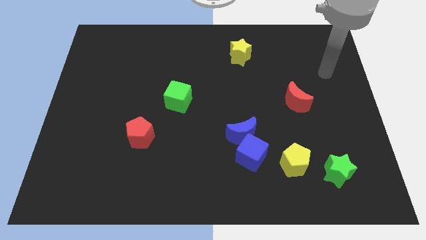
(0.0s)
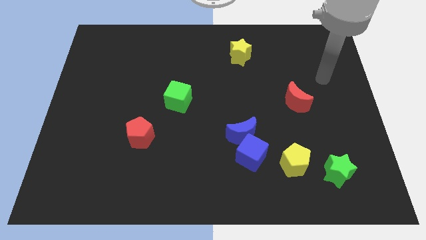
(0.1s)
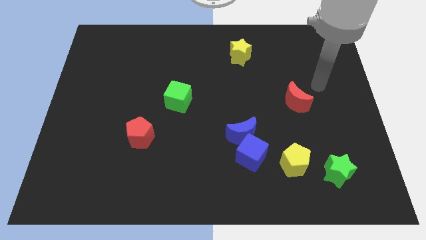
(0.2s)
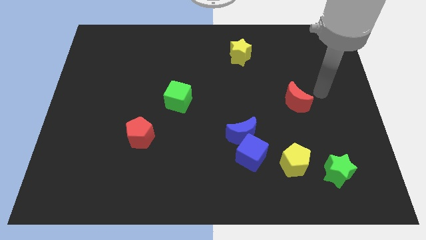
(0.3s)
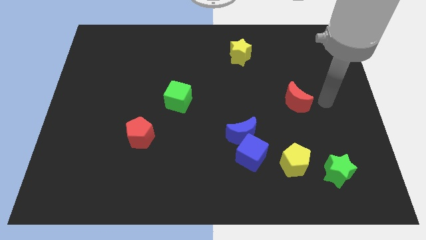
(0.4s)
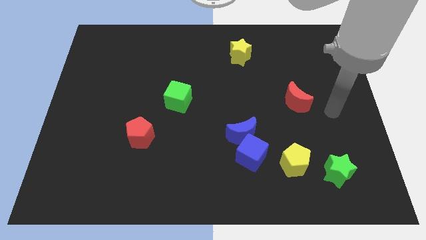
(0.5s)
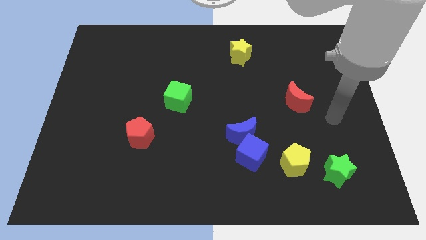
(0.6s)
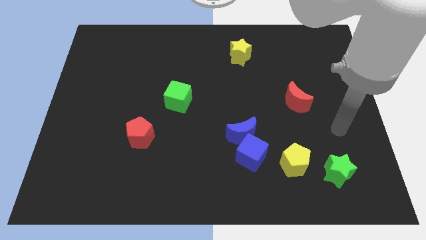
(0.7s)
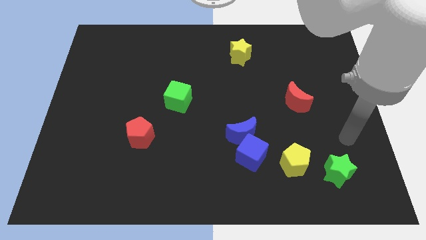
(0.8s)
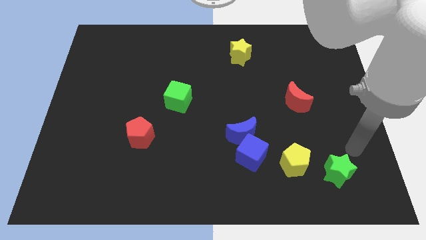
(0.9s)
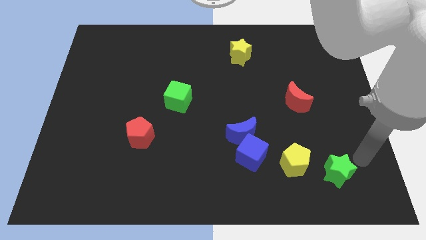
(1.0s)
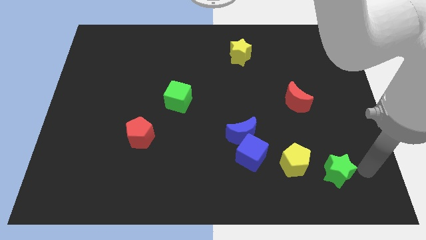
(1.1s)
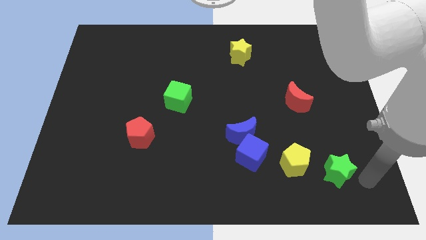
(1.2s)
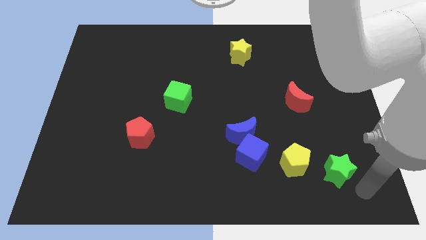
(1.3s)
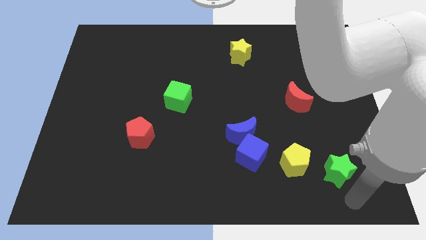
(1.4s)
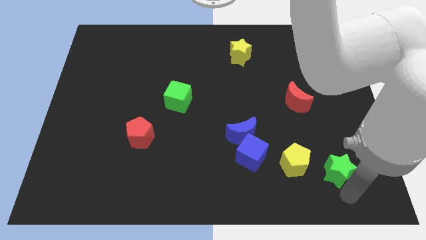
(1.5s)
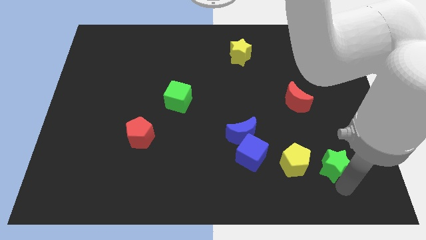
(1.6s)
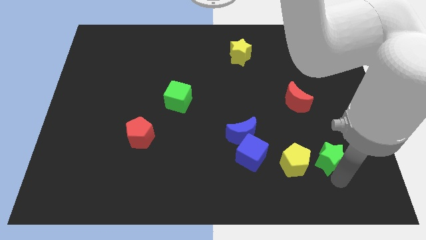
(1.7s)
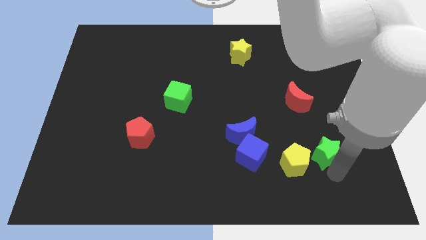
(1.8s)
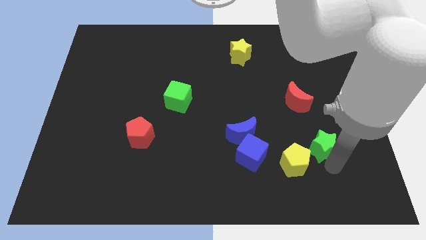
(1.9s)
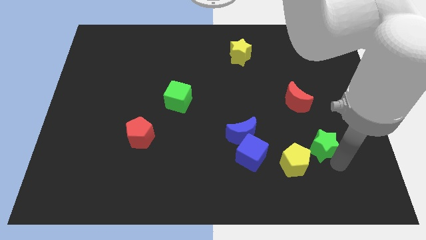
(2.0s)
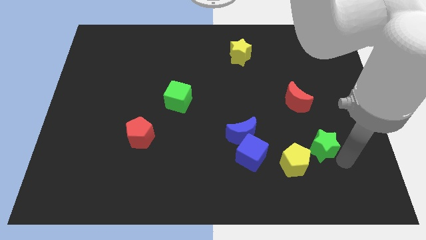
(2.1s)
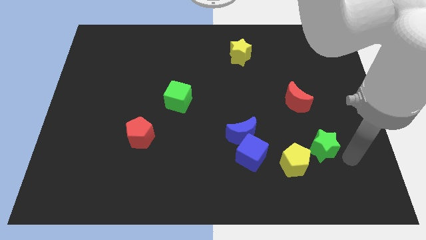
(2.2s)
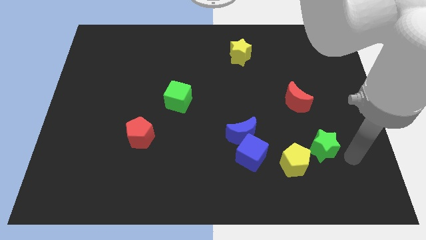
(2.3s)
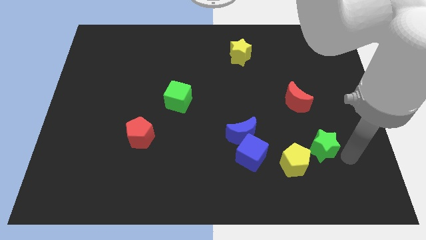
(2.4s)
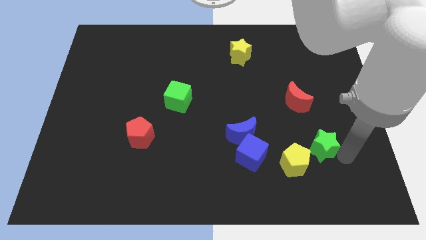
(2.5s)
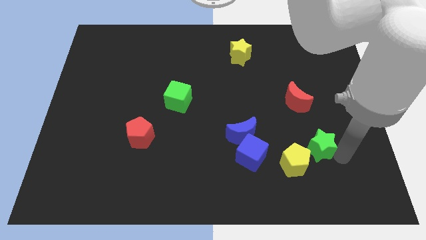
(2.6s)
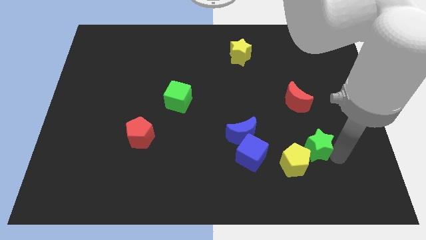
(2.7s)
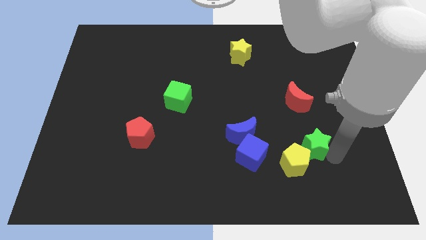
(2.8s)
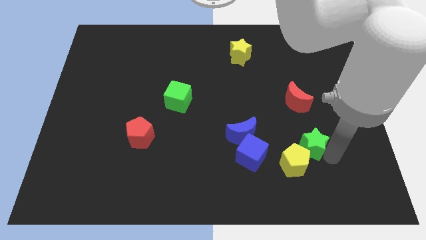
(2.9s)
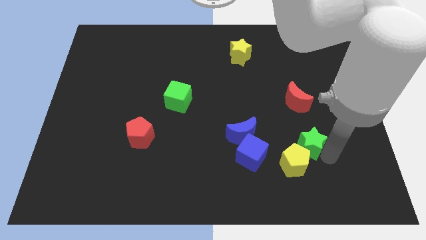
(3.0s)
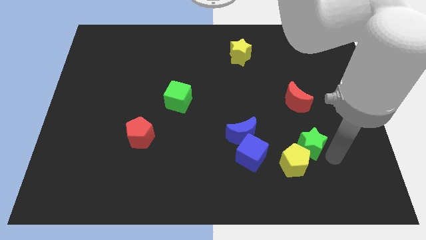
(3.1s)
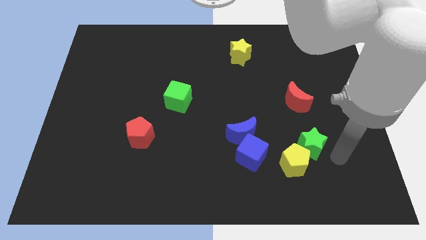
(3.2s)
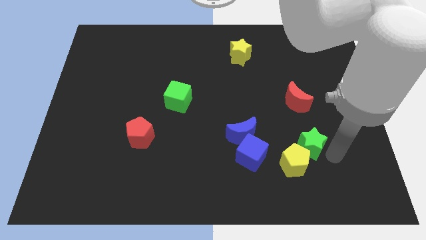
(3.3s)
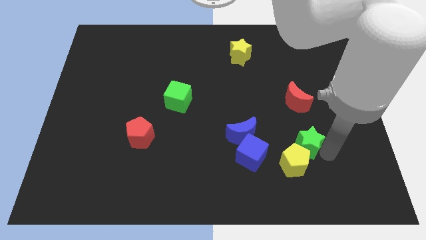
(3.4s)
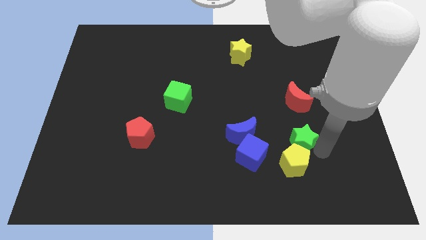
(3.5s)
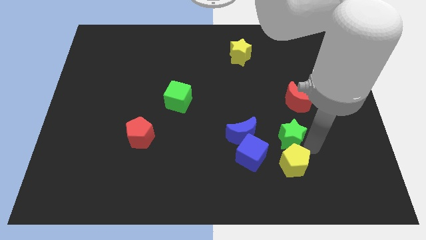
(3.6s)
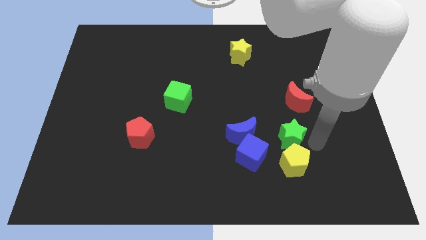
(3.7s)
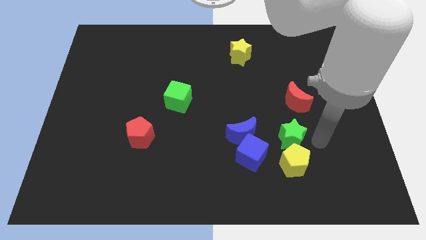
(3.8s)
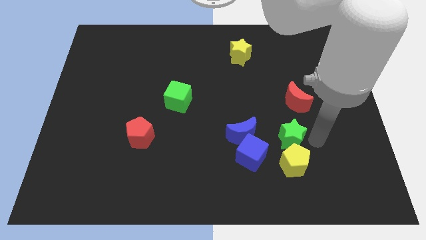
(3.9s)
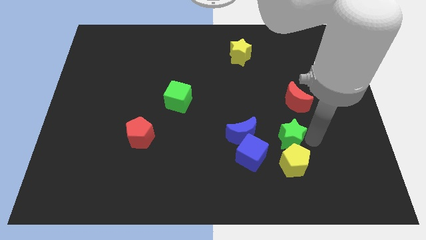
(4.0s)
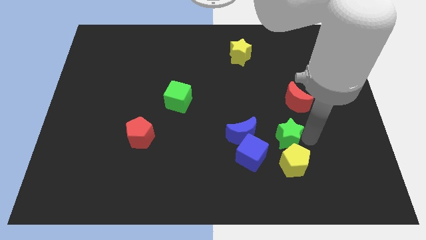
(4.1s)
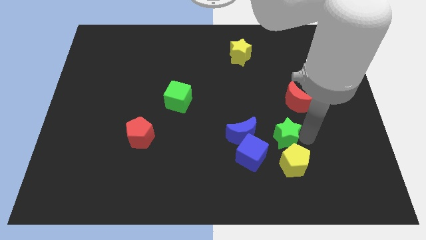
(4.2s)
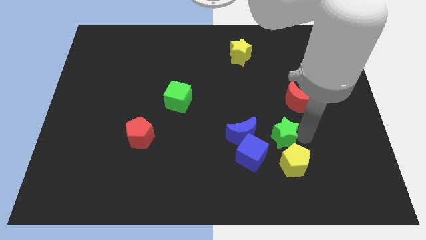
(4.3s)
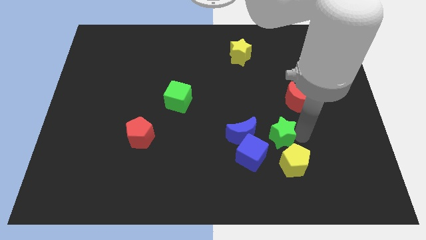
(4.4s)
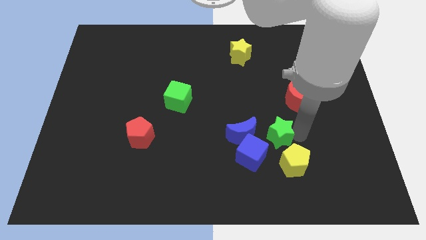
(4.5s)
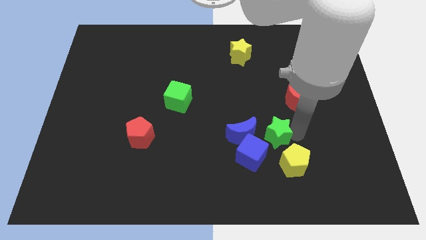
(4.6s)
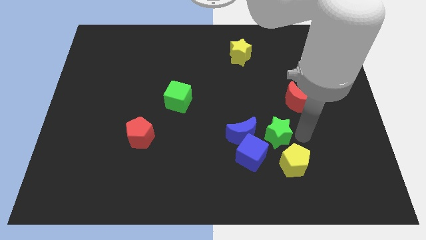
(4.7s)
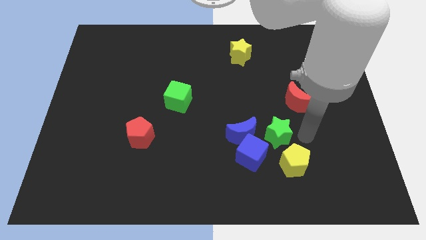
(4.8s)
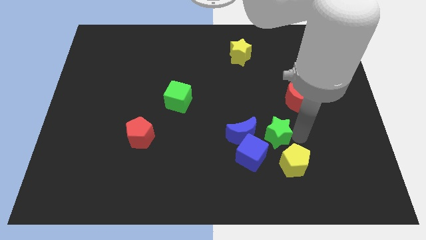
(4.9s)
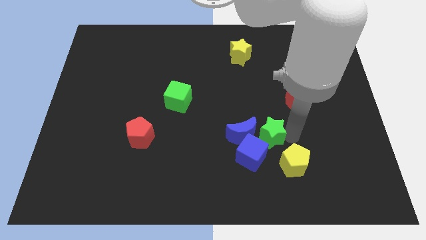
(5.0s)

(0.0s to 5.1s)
push the green star to the blue moon

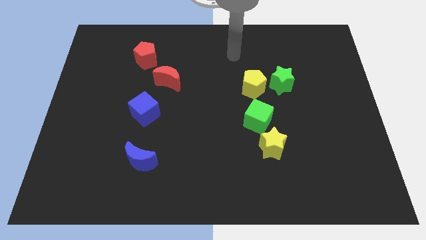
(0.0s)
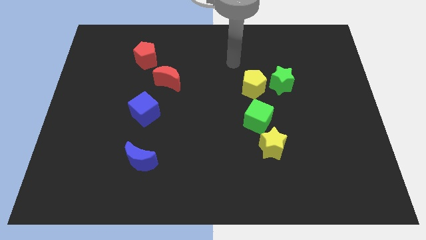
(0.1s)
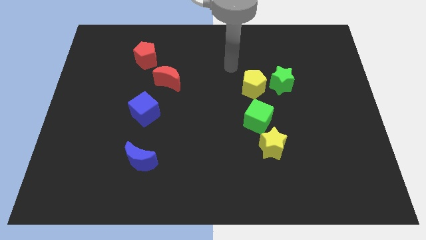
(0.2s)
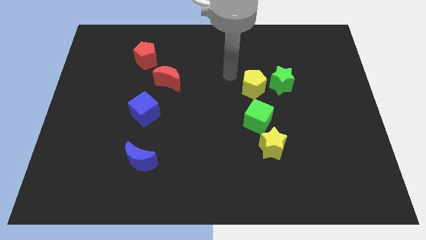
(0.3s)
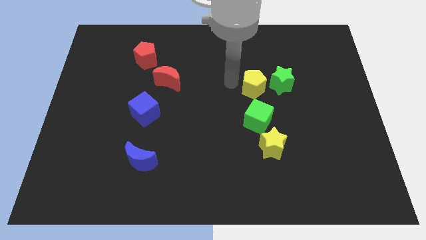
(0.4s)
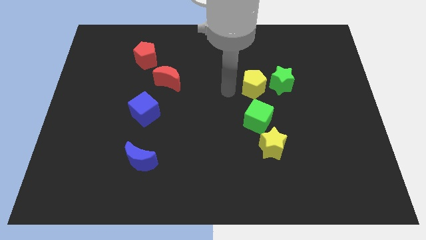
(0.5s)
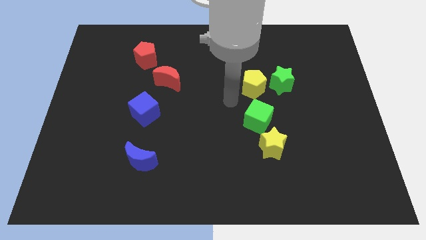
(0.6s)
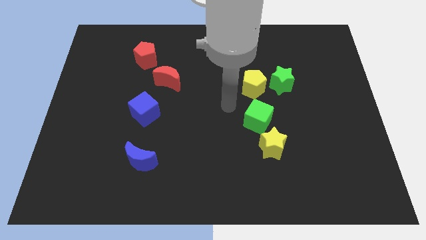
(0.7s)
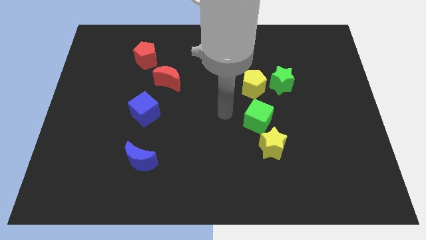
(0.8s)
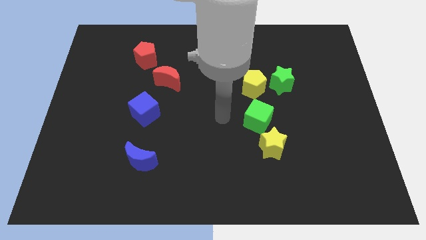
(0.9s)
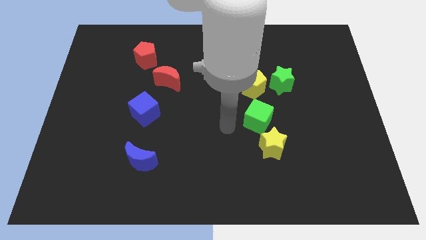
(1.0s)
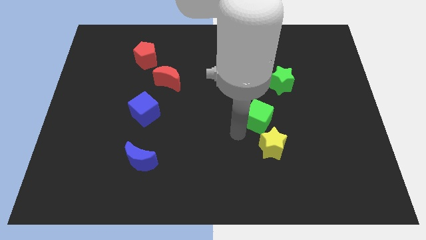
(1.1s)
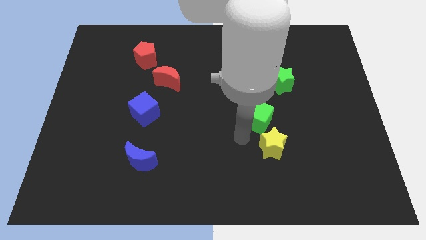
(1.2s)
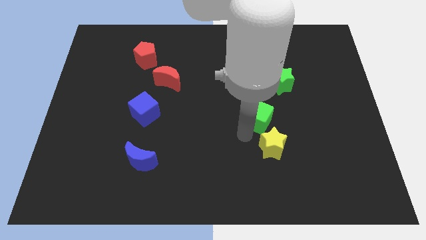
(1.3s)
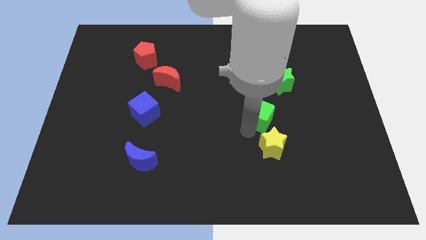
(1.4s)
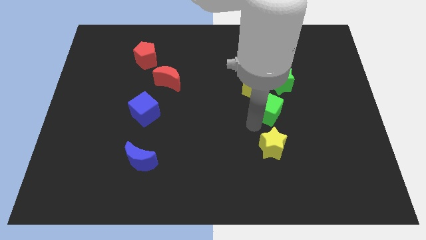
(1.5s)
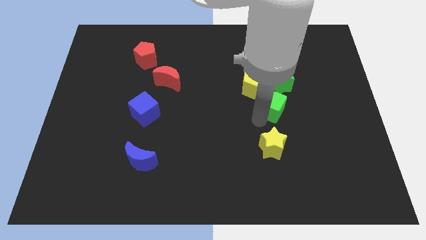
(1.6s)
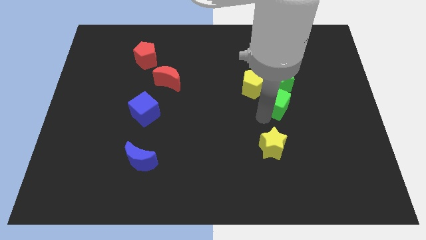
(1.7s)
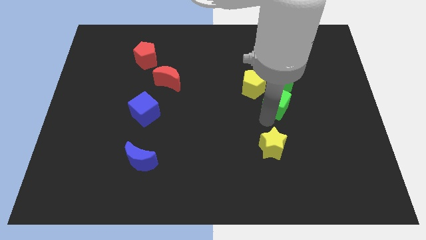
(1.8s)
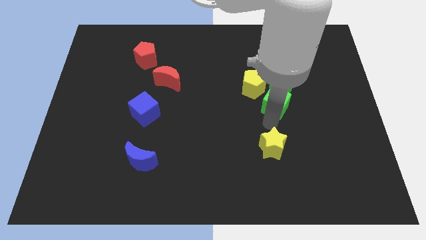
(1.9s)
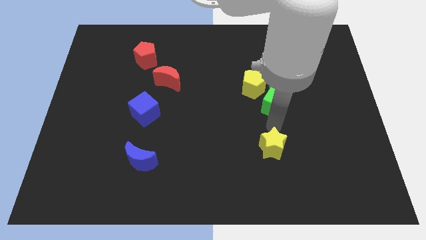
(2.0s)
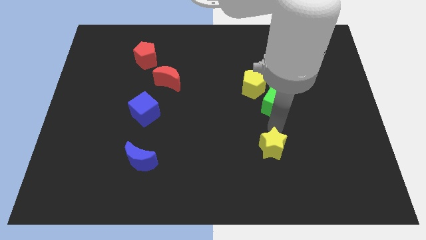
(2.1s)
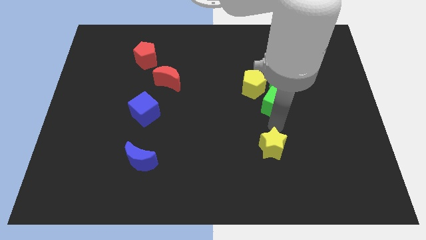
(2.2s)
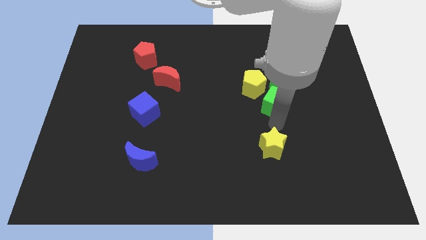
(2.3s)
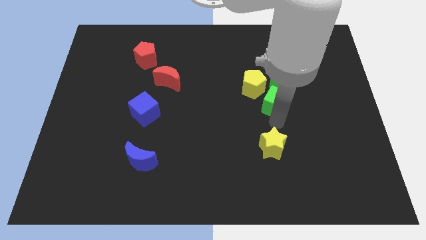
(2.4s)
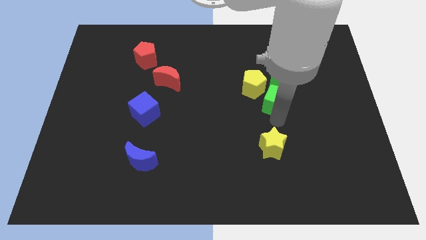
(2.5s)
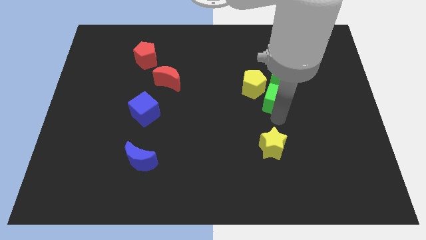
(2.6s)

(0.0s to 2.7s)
slide the green cube close to the green star
